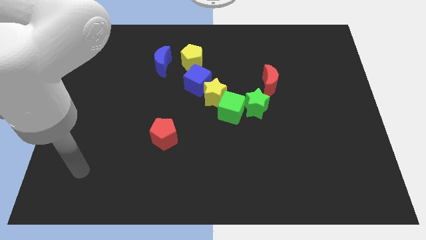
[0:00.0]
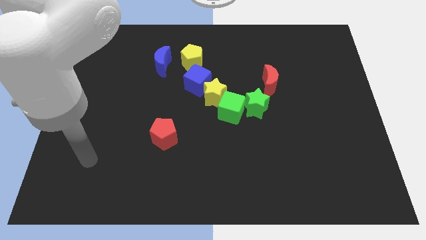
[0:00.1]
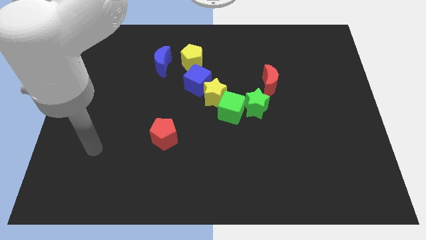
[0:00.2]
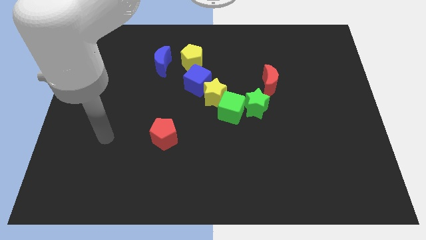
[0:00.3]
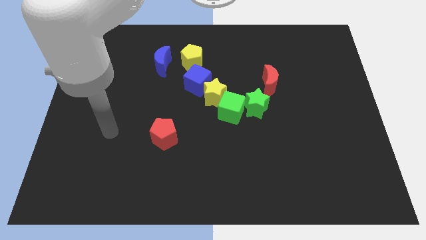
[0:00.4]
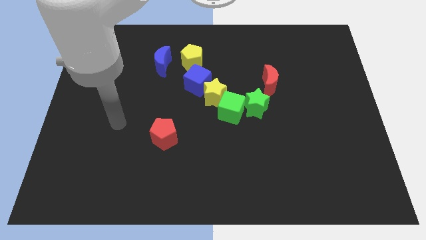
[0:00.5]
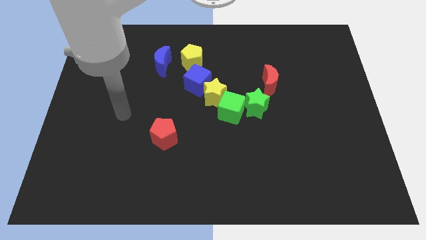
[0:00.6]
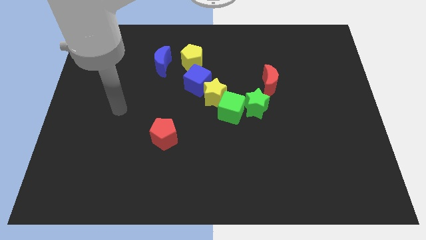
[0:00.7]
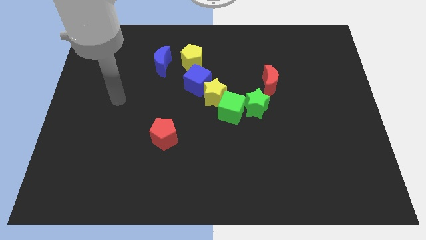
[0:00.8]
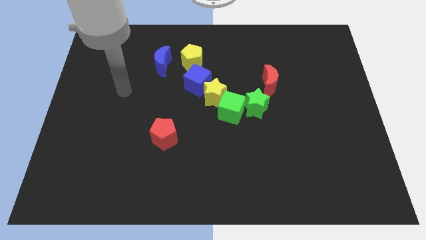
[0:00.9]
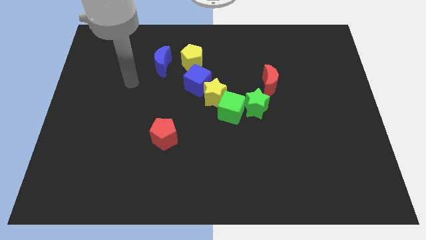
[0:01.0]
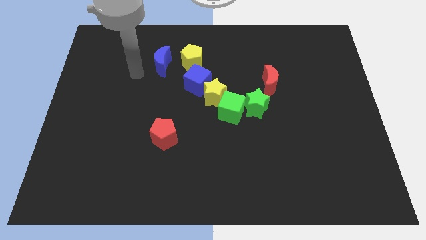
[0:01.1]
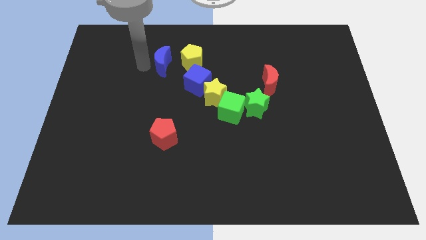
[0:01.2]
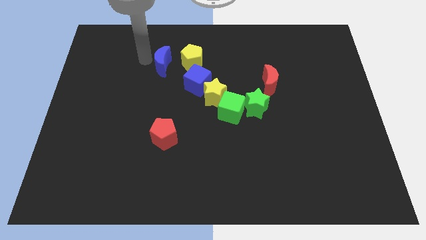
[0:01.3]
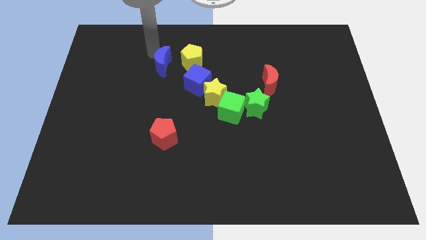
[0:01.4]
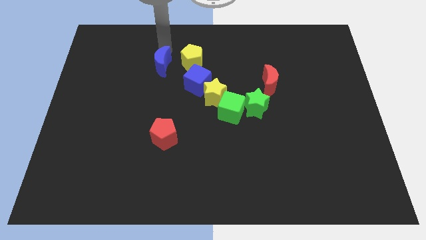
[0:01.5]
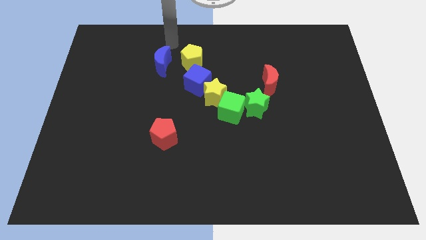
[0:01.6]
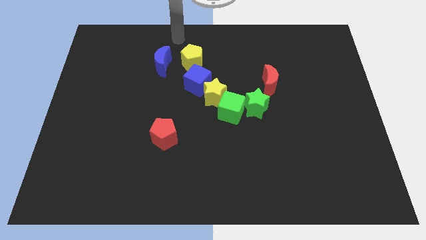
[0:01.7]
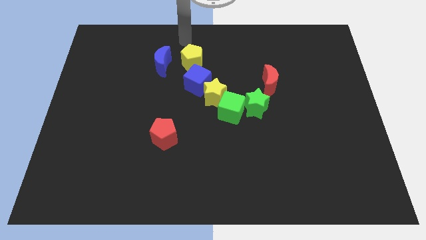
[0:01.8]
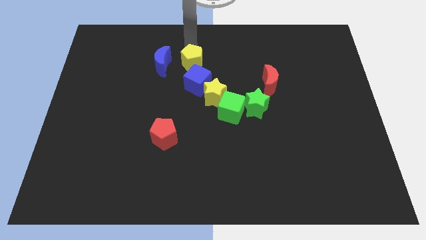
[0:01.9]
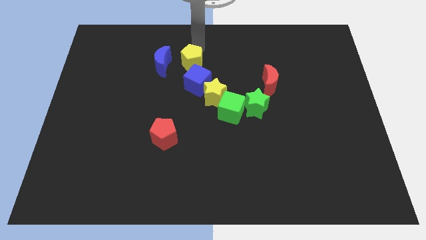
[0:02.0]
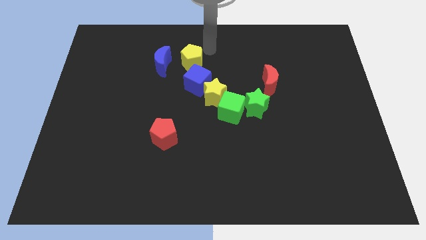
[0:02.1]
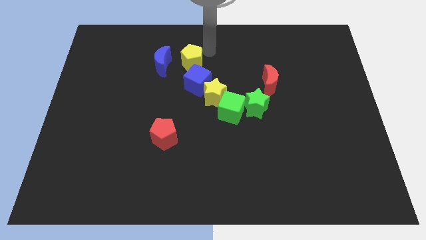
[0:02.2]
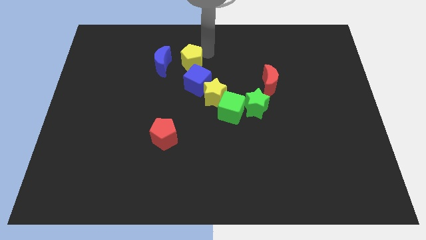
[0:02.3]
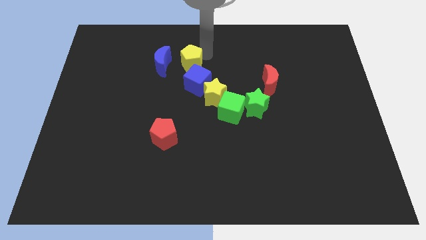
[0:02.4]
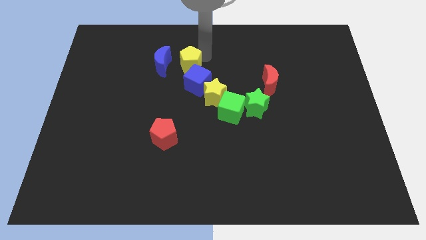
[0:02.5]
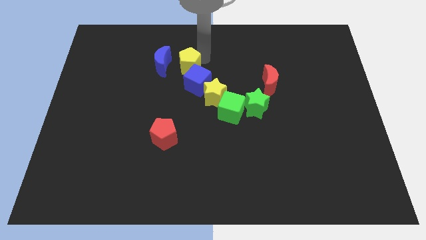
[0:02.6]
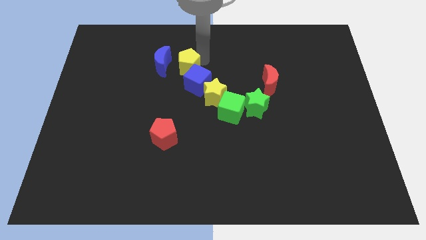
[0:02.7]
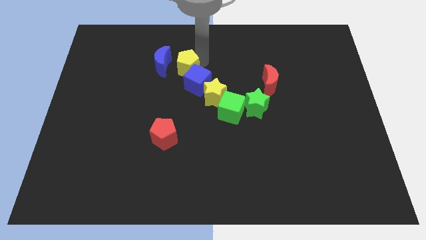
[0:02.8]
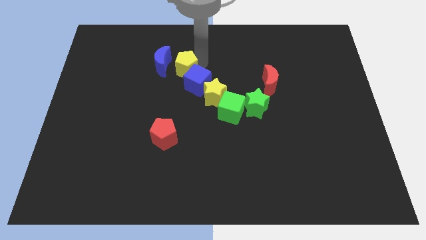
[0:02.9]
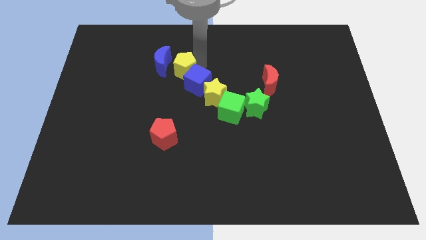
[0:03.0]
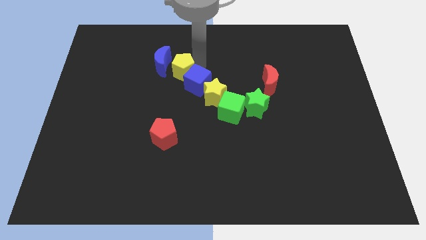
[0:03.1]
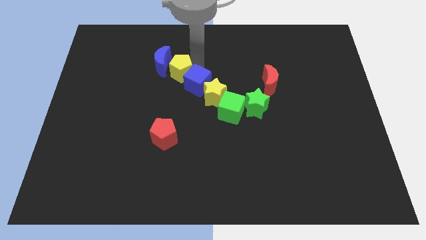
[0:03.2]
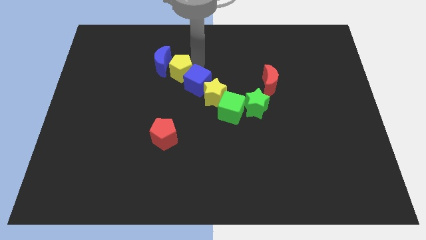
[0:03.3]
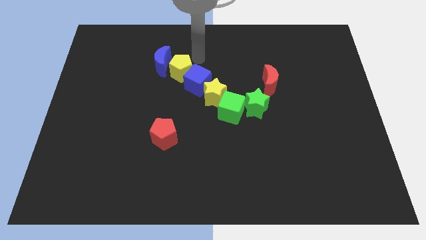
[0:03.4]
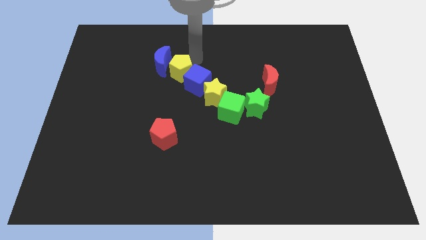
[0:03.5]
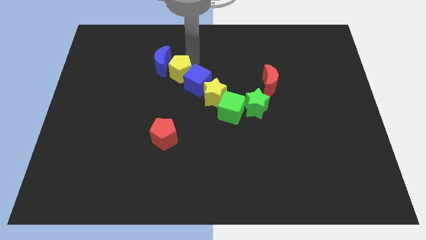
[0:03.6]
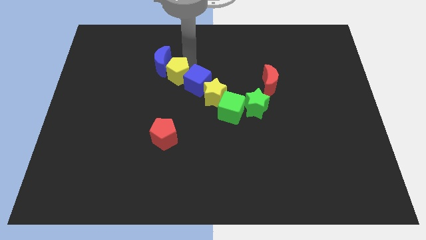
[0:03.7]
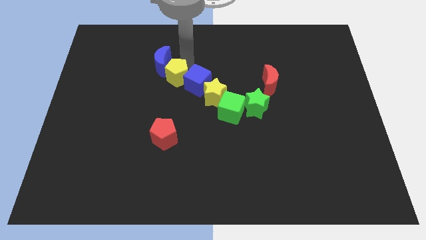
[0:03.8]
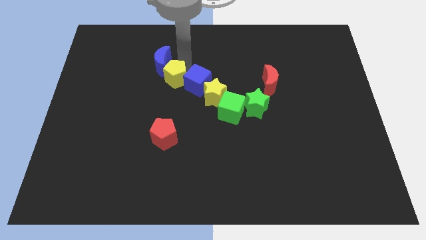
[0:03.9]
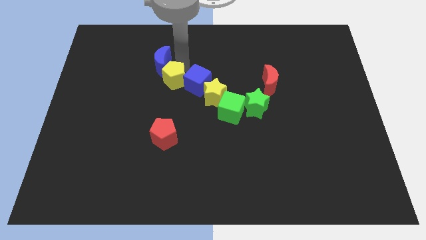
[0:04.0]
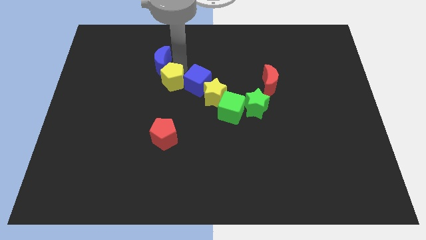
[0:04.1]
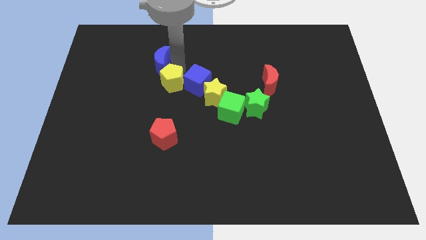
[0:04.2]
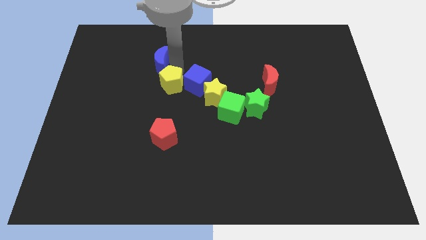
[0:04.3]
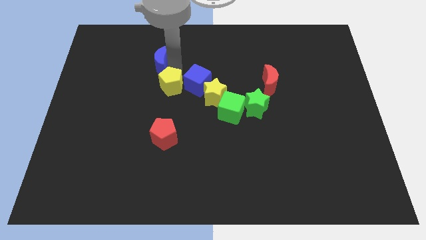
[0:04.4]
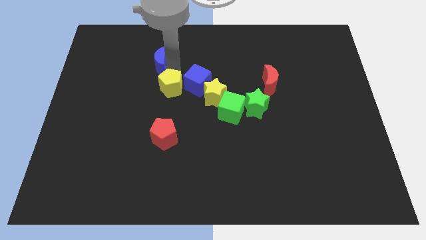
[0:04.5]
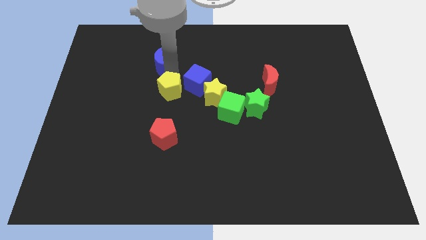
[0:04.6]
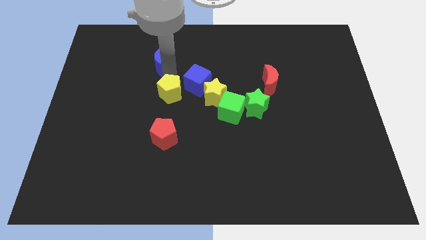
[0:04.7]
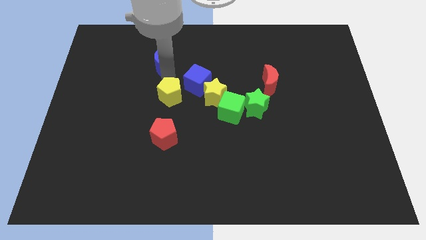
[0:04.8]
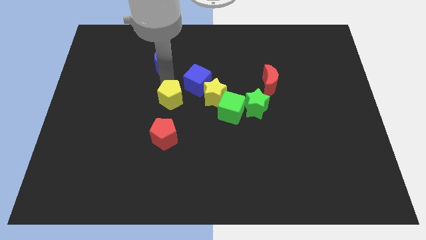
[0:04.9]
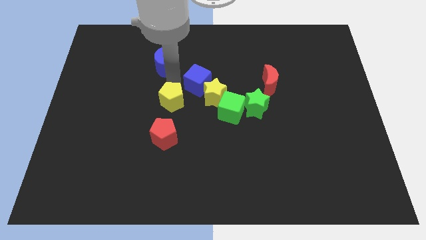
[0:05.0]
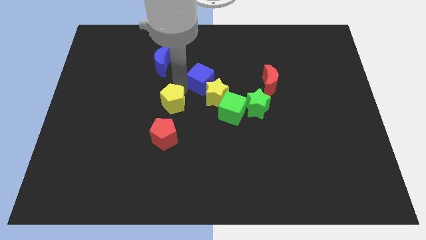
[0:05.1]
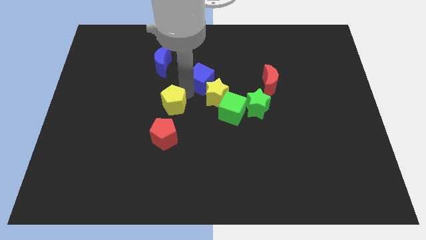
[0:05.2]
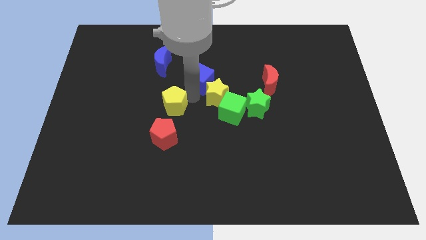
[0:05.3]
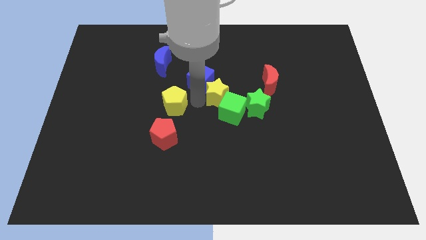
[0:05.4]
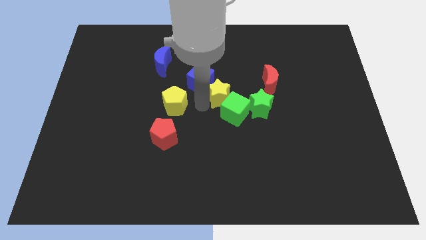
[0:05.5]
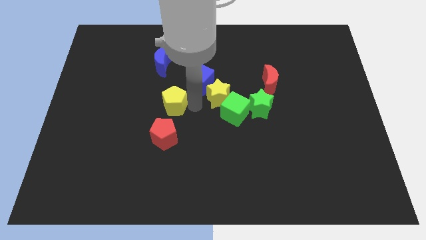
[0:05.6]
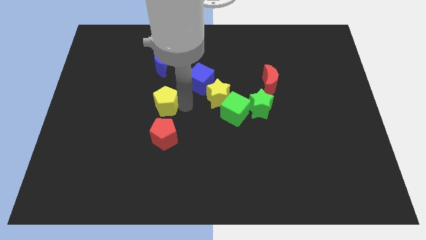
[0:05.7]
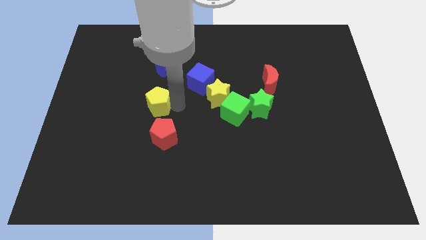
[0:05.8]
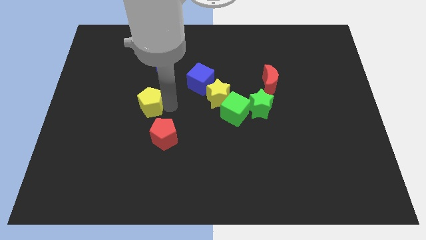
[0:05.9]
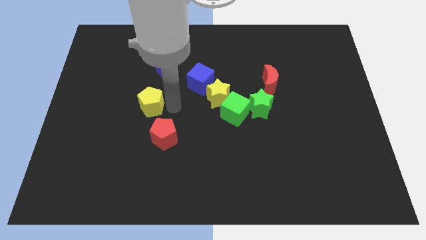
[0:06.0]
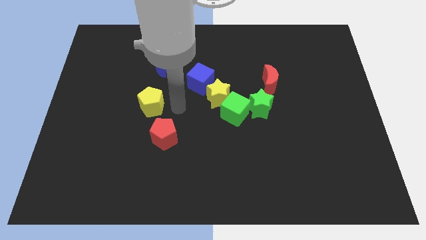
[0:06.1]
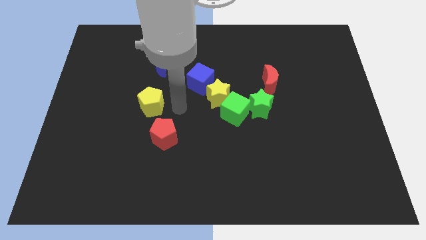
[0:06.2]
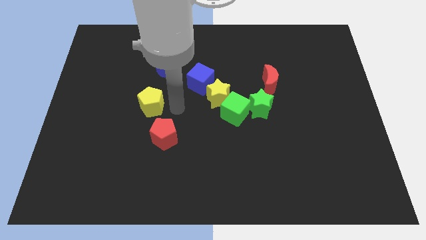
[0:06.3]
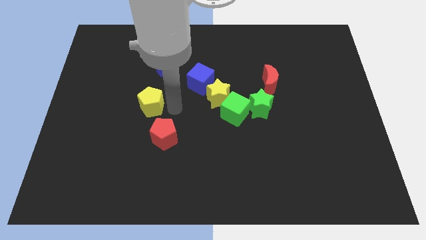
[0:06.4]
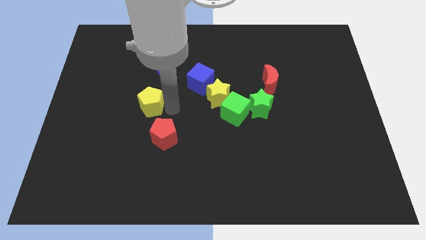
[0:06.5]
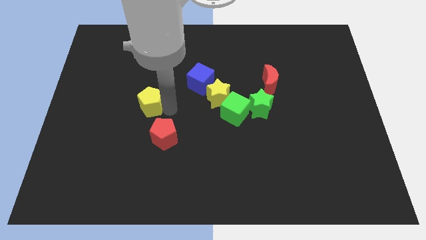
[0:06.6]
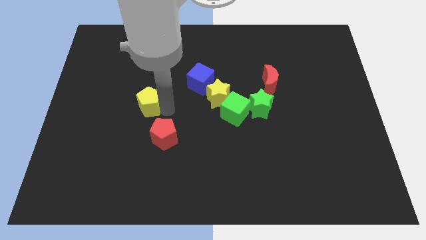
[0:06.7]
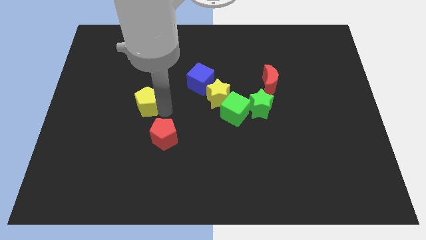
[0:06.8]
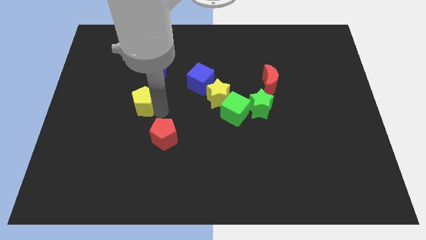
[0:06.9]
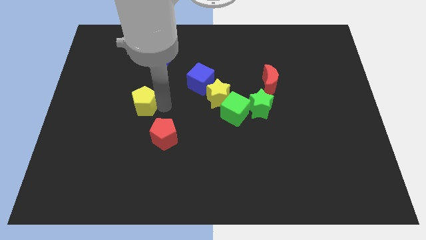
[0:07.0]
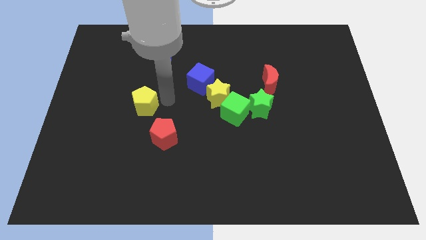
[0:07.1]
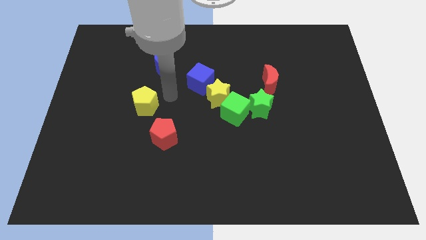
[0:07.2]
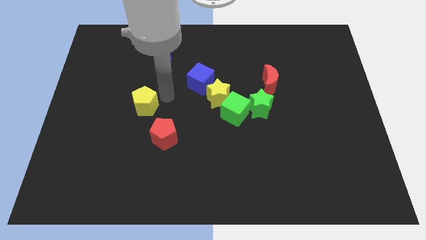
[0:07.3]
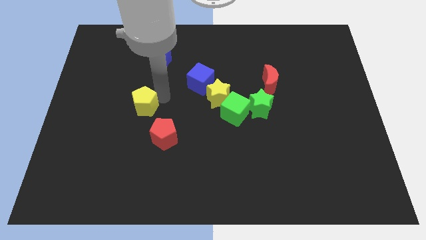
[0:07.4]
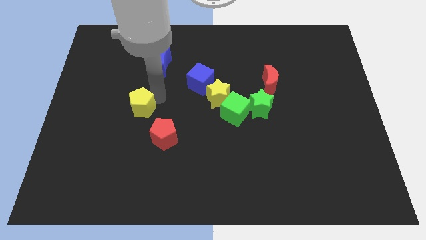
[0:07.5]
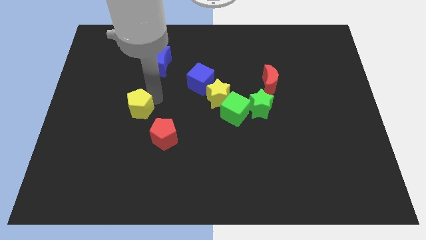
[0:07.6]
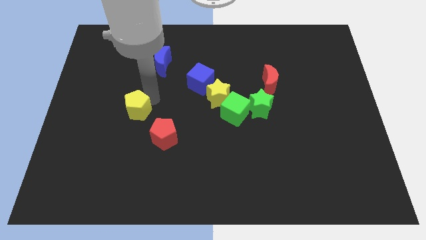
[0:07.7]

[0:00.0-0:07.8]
move the yellow pentagon downwards and then to the left

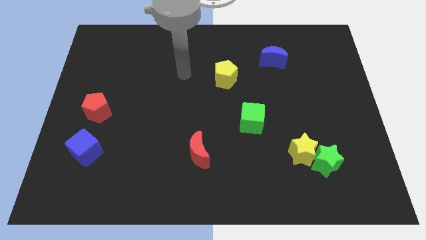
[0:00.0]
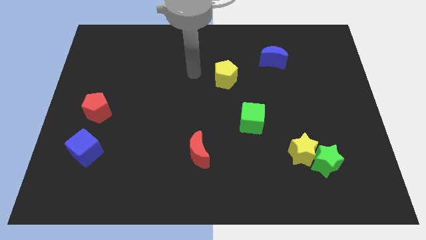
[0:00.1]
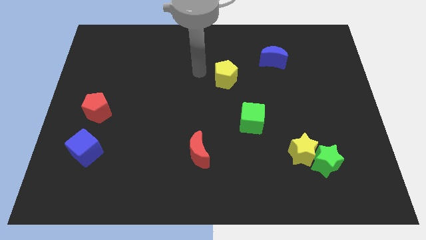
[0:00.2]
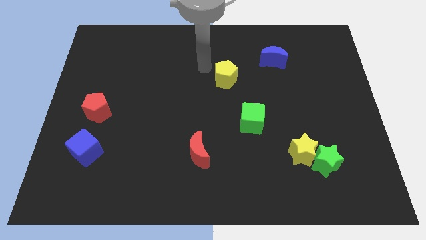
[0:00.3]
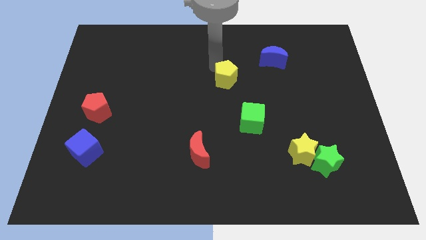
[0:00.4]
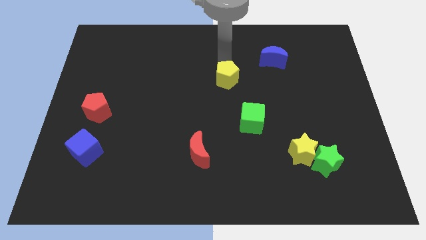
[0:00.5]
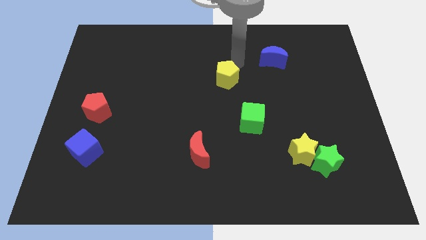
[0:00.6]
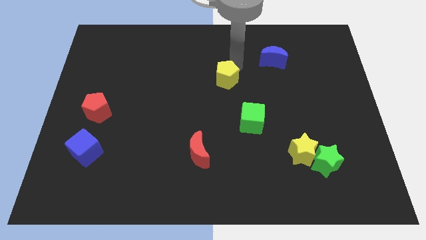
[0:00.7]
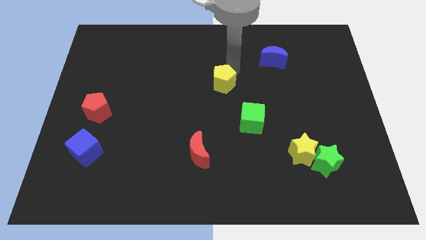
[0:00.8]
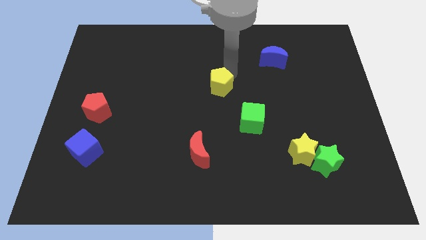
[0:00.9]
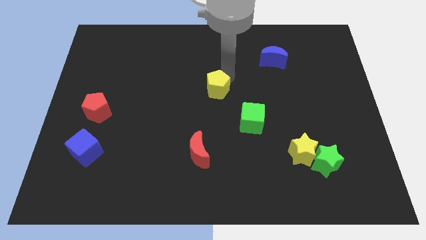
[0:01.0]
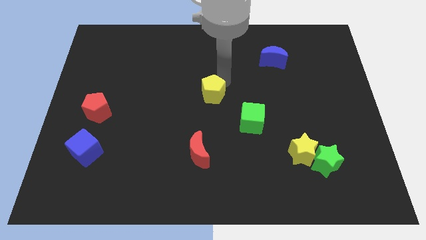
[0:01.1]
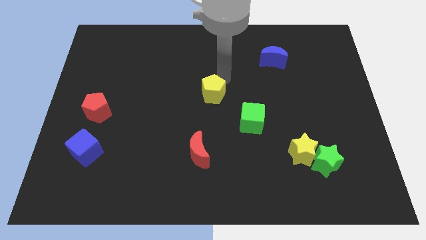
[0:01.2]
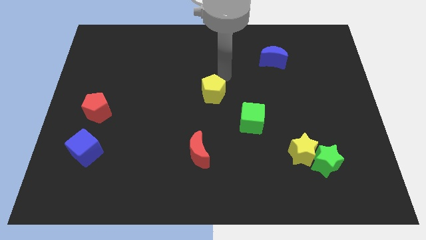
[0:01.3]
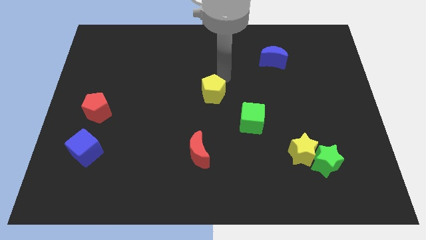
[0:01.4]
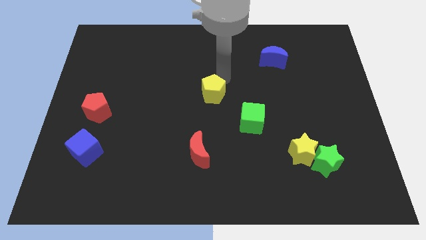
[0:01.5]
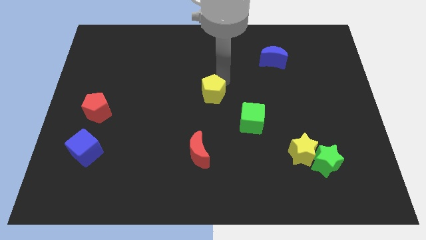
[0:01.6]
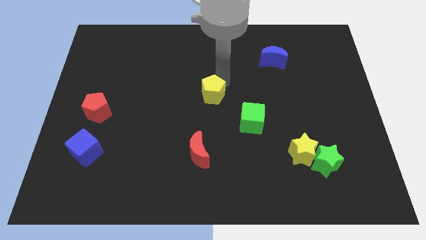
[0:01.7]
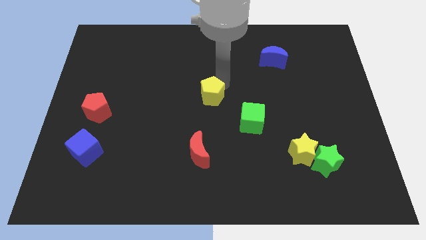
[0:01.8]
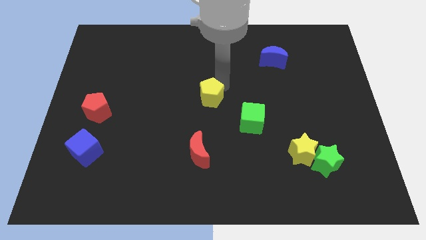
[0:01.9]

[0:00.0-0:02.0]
slightly push the yellow pentagon diagonally down and left
